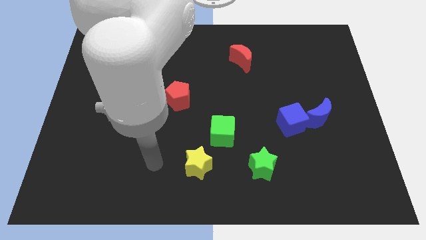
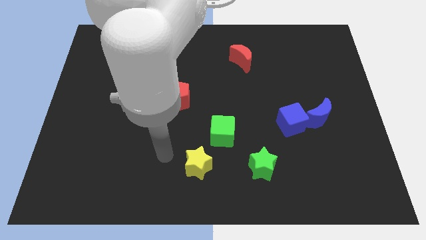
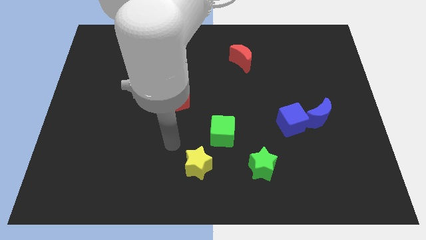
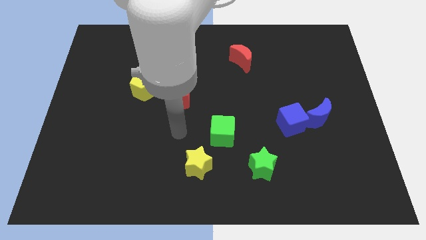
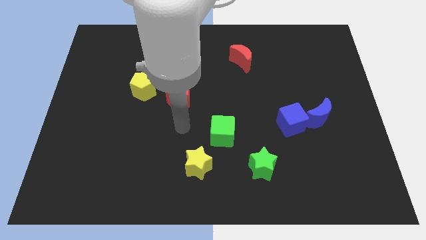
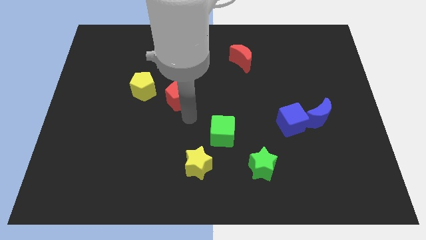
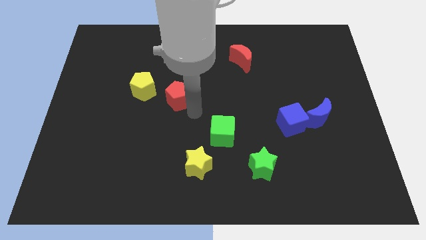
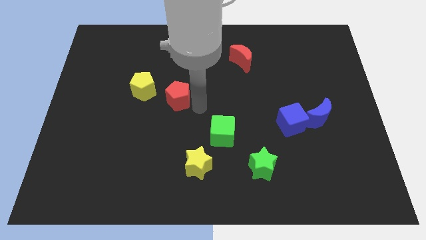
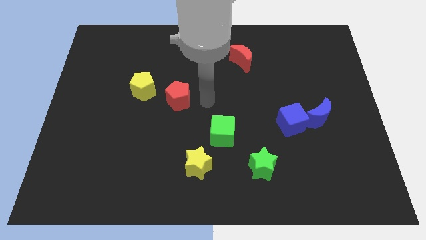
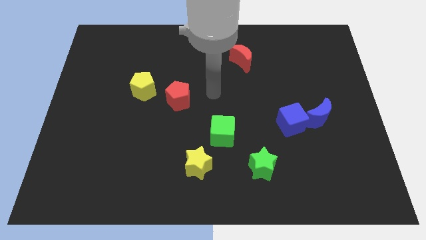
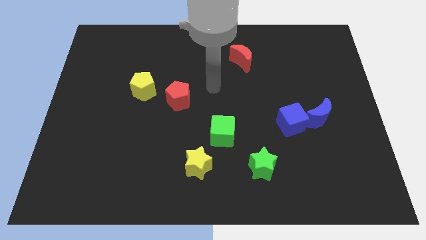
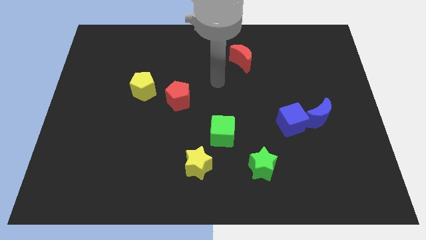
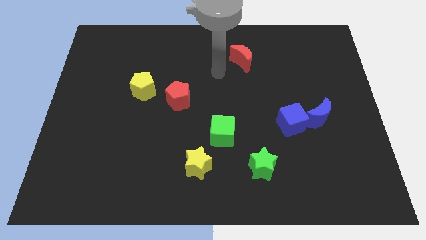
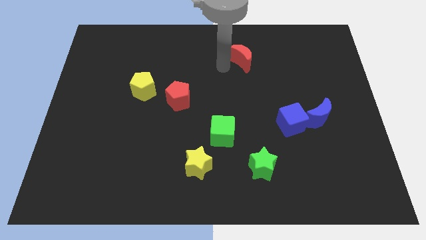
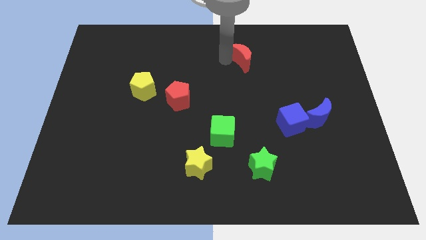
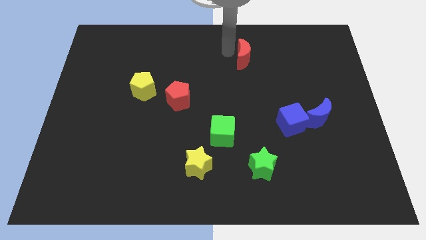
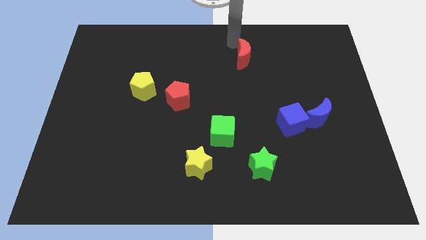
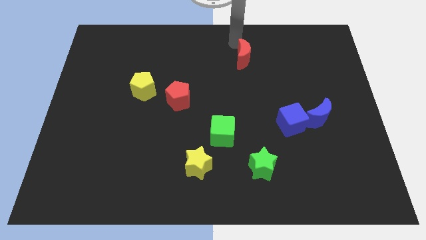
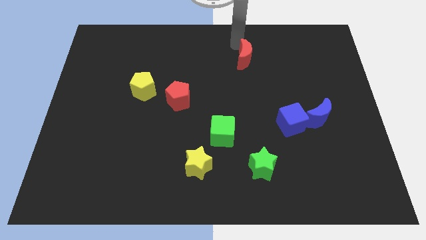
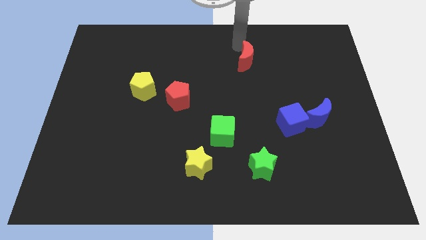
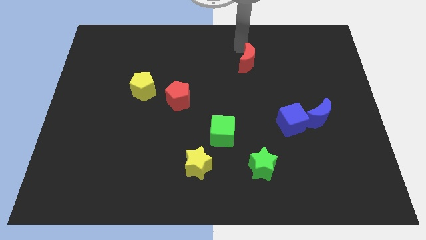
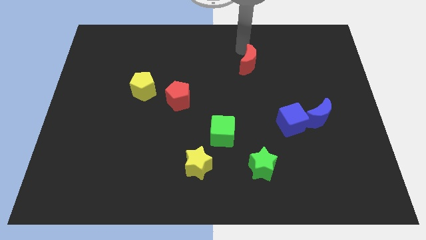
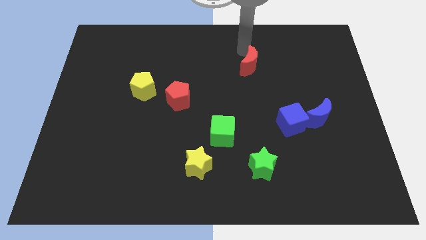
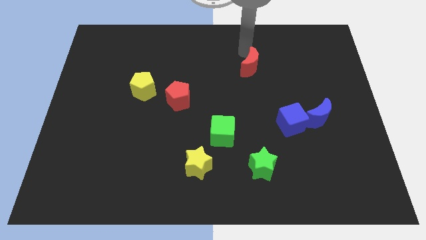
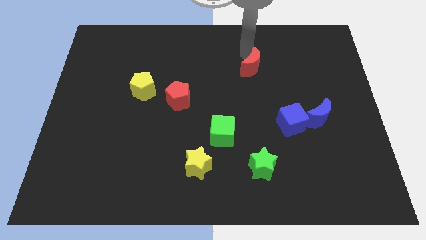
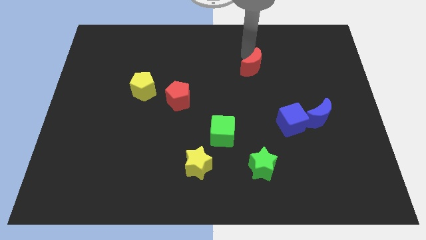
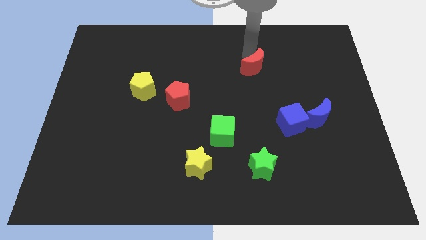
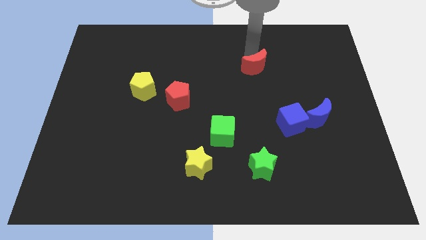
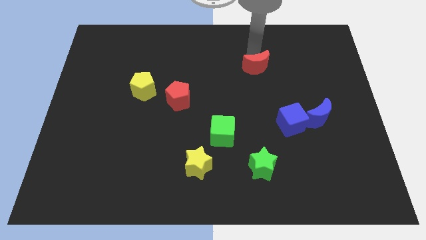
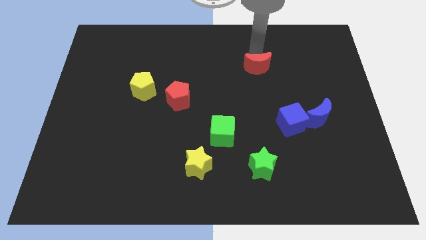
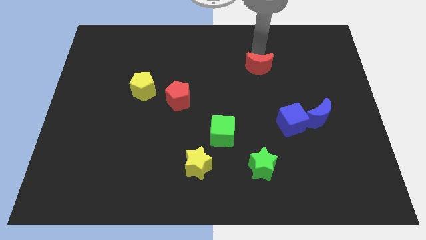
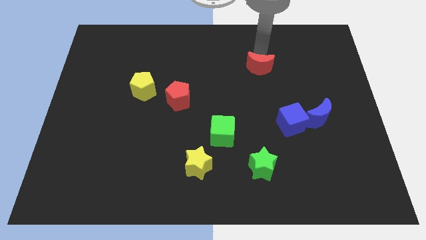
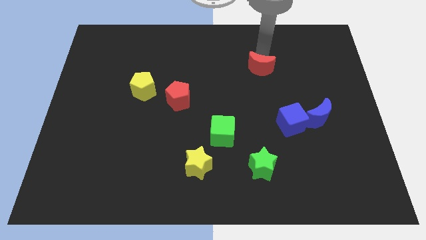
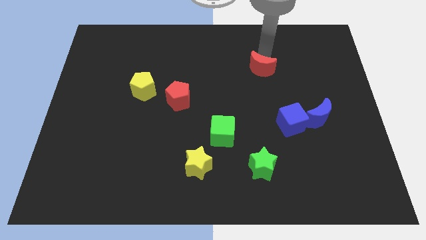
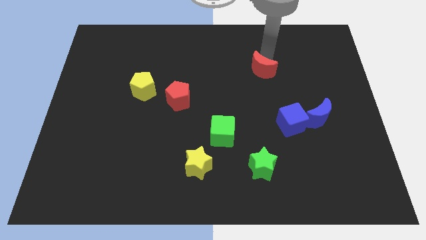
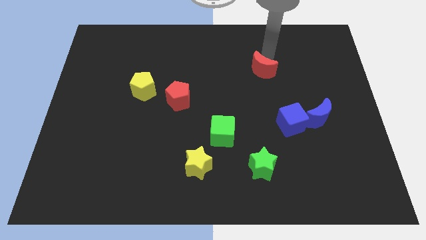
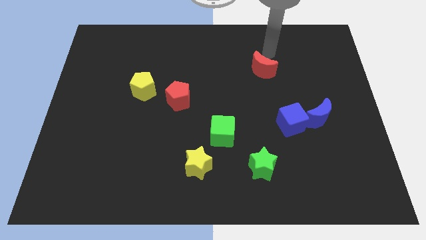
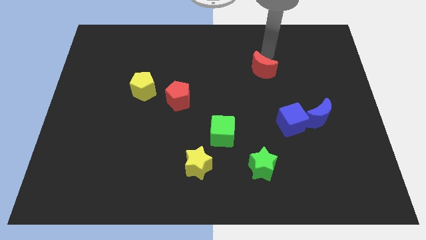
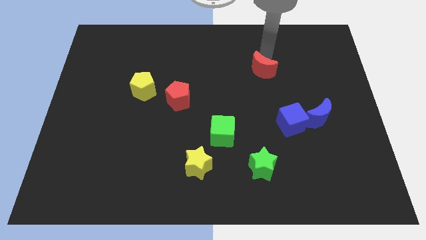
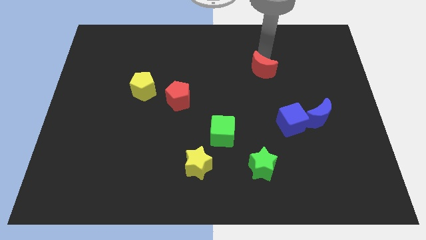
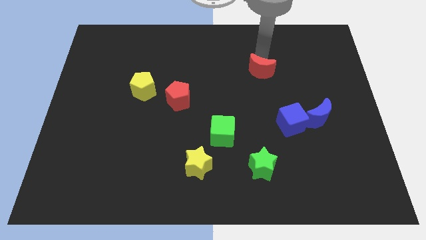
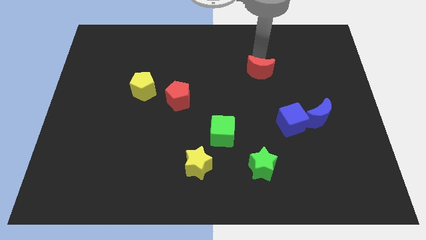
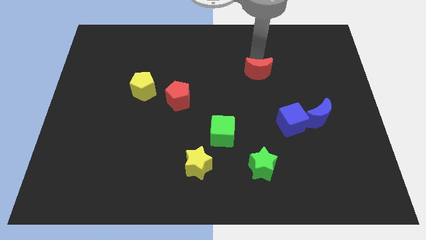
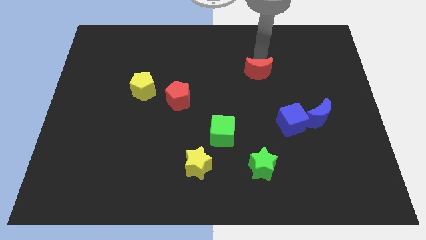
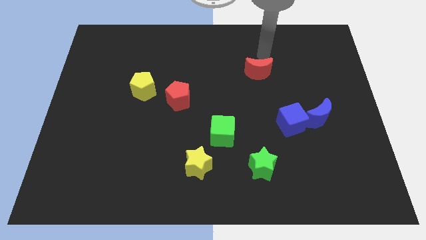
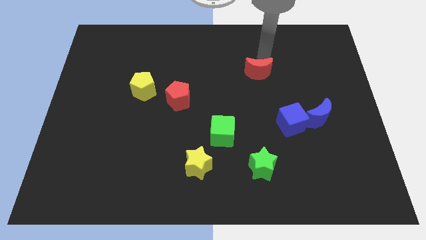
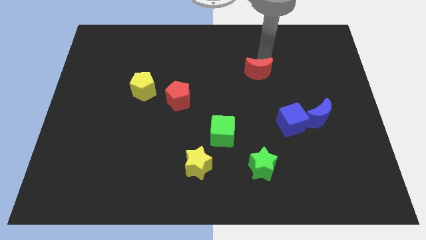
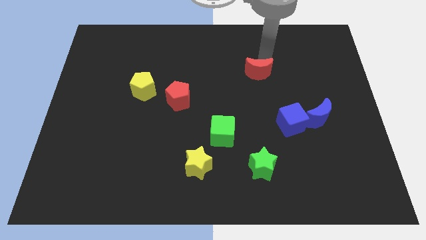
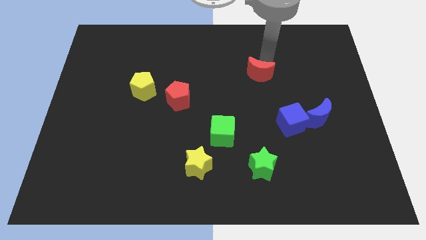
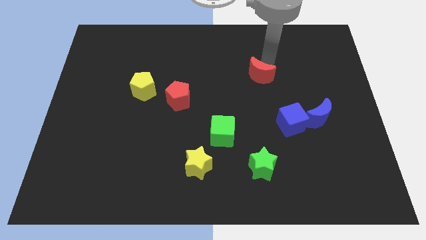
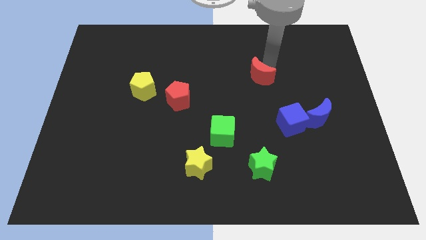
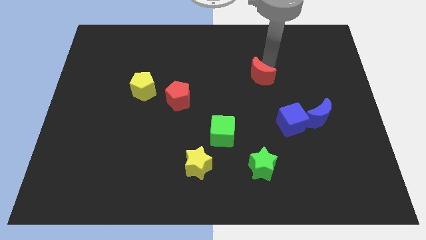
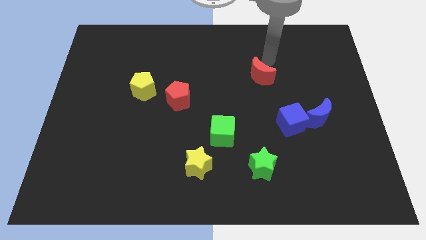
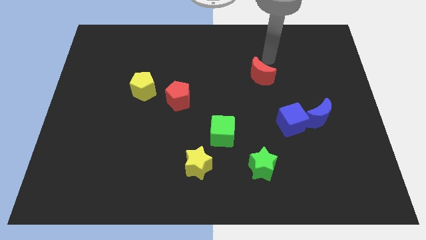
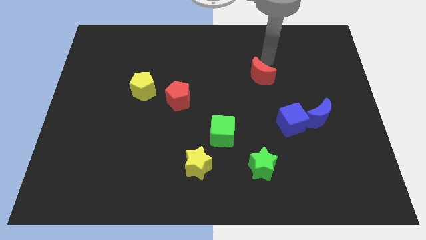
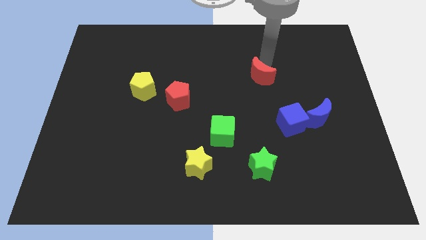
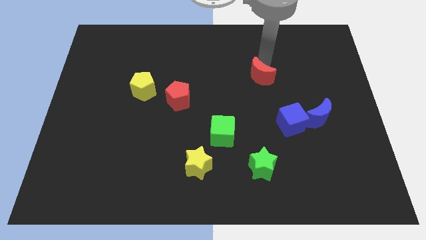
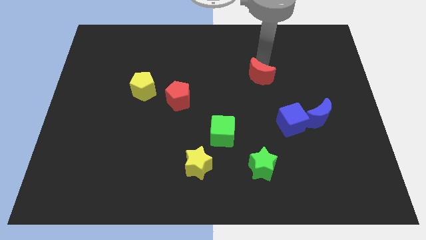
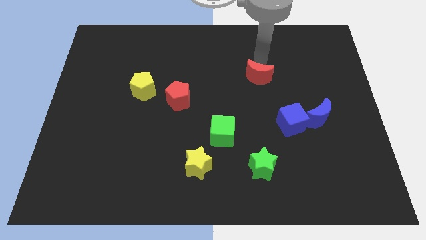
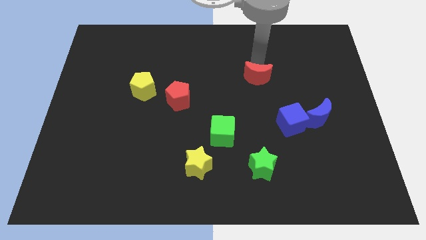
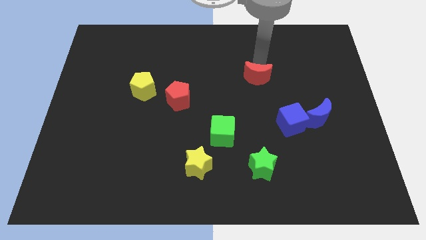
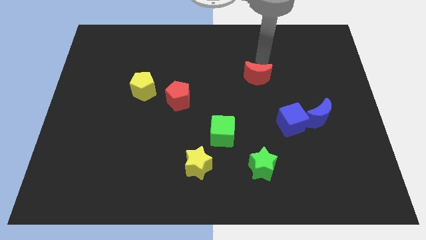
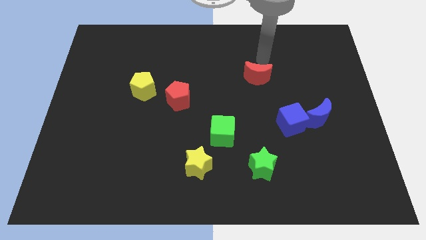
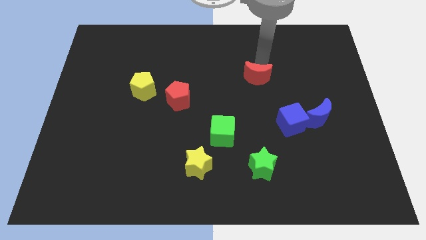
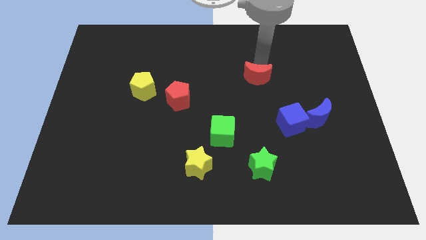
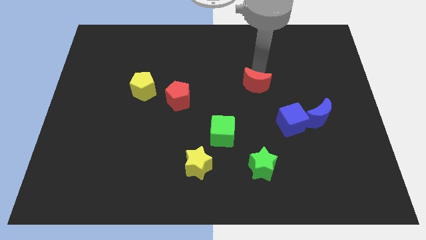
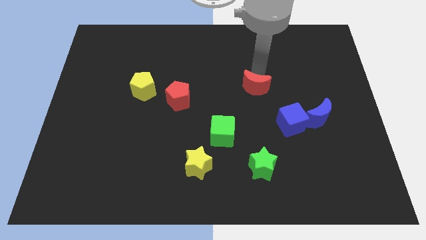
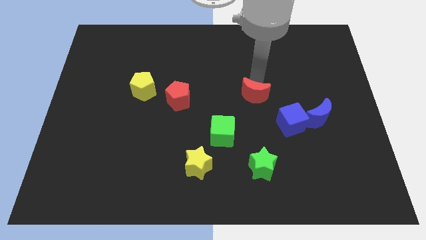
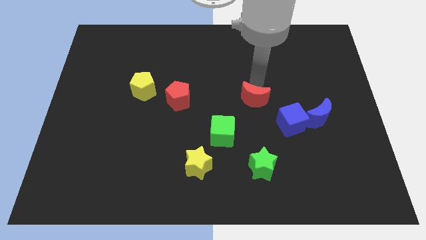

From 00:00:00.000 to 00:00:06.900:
move the red moon to the top right side of the green cube
